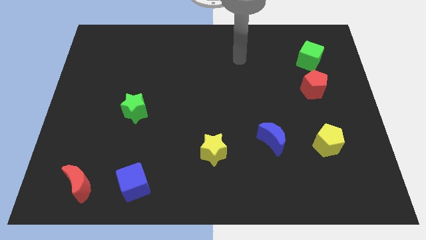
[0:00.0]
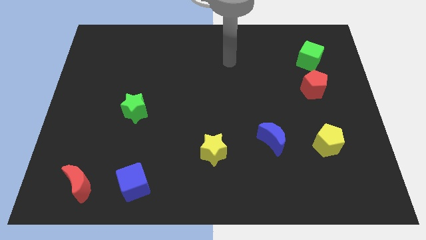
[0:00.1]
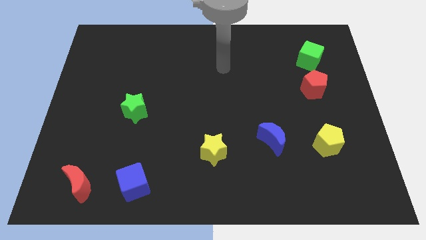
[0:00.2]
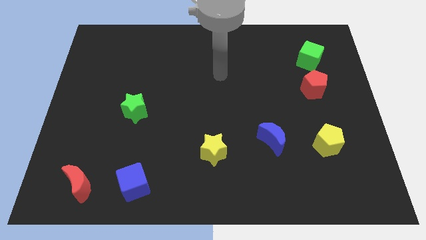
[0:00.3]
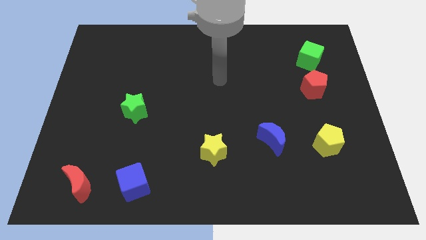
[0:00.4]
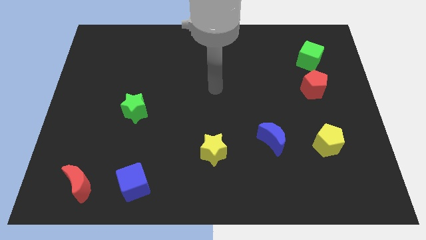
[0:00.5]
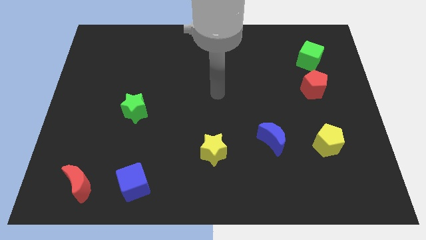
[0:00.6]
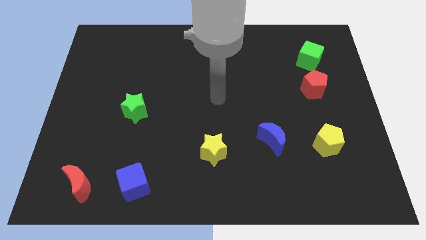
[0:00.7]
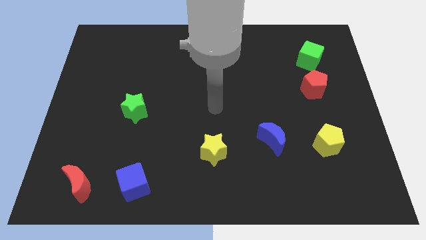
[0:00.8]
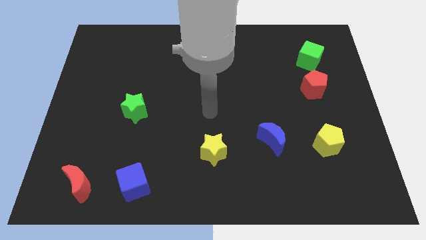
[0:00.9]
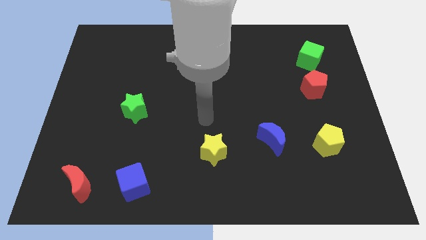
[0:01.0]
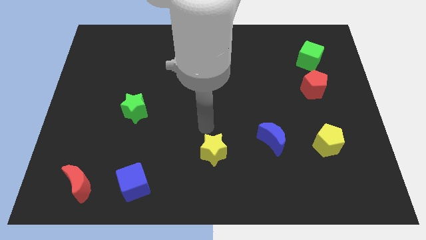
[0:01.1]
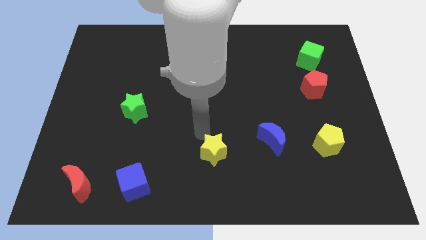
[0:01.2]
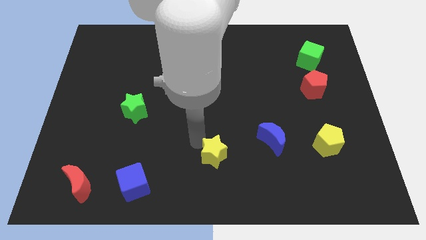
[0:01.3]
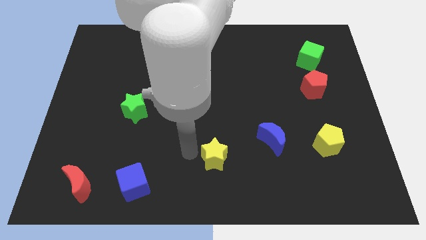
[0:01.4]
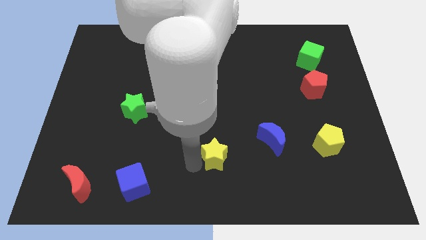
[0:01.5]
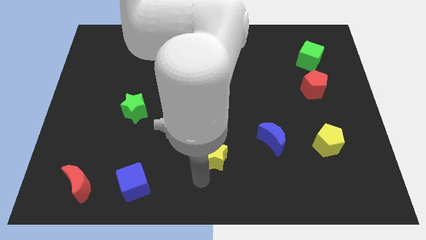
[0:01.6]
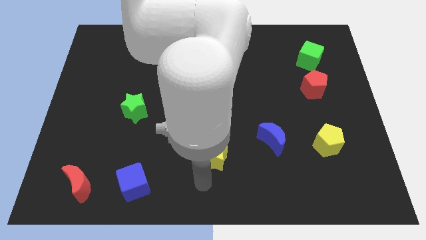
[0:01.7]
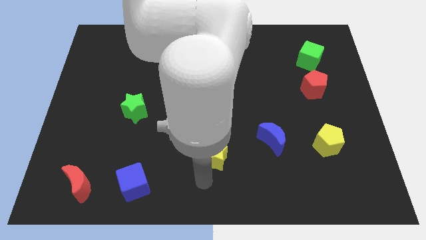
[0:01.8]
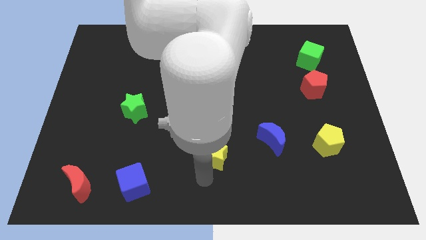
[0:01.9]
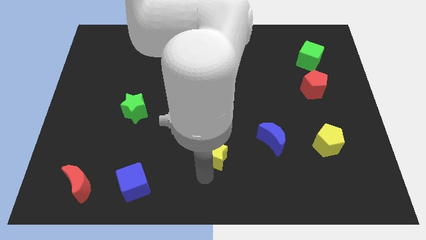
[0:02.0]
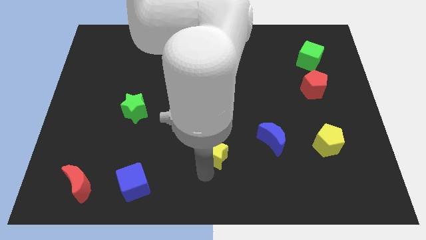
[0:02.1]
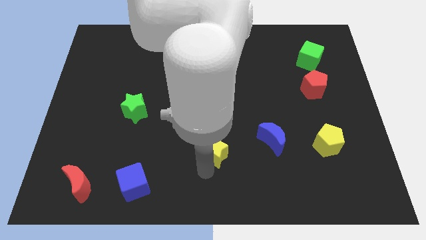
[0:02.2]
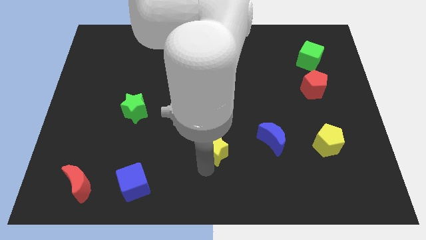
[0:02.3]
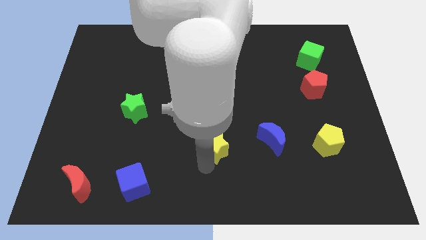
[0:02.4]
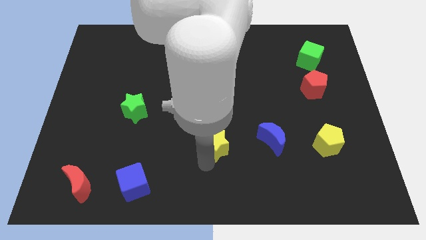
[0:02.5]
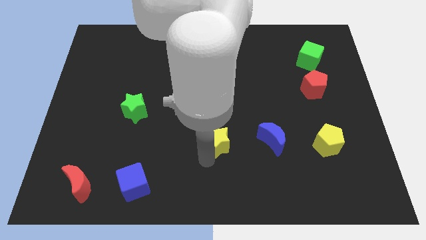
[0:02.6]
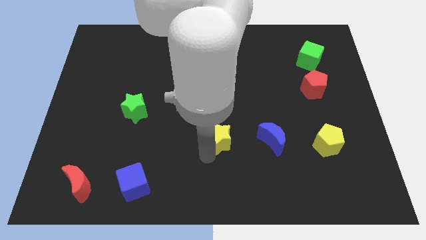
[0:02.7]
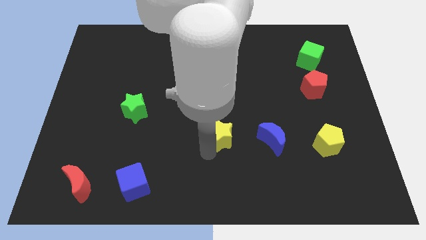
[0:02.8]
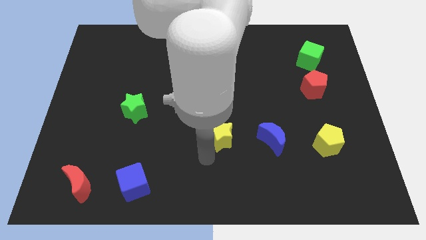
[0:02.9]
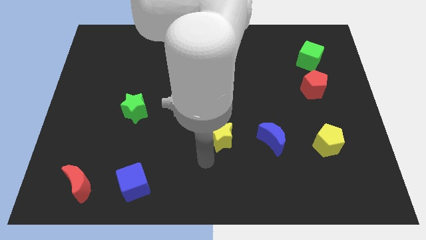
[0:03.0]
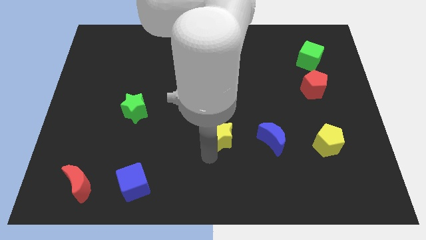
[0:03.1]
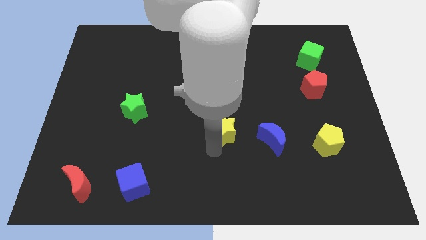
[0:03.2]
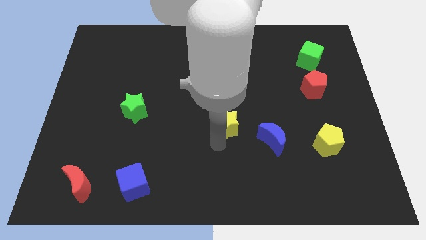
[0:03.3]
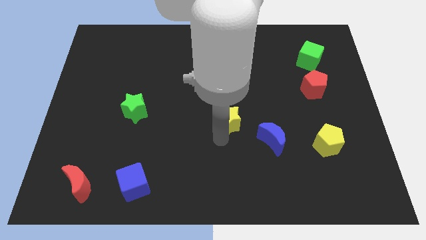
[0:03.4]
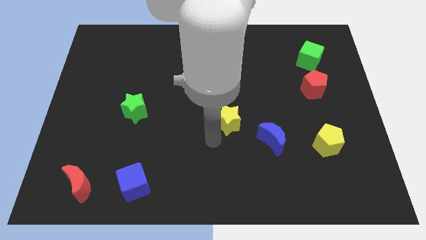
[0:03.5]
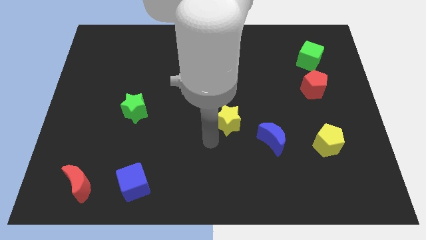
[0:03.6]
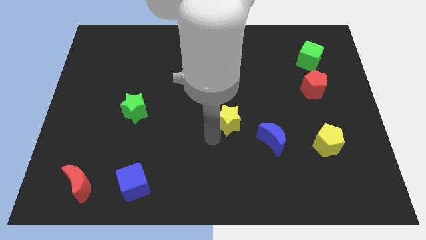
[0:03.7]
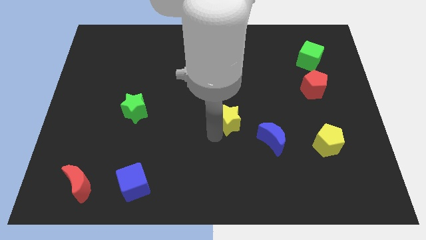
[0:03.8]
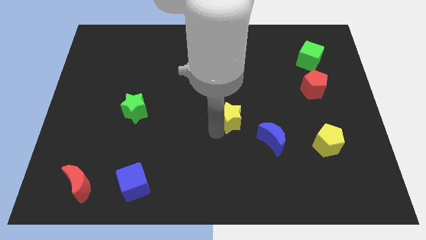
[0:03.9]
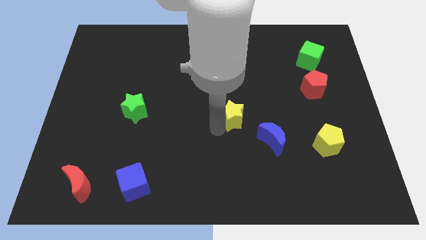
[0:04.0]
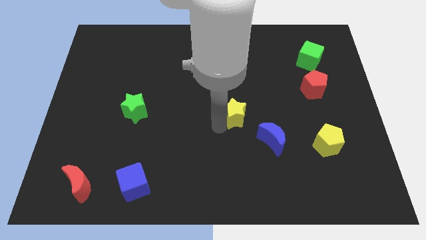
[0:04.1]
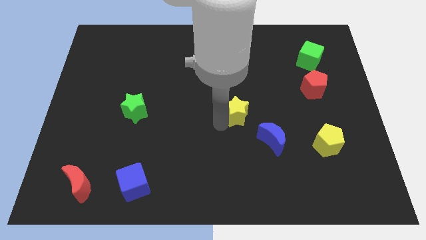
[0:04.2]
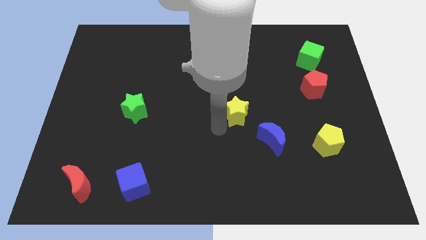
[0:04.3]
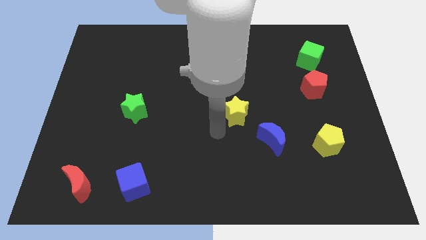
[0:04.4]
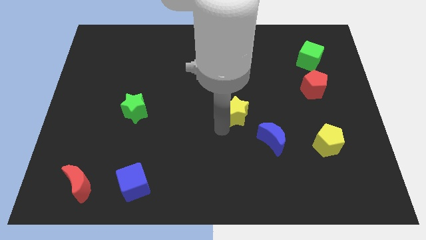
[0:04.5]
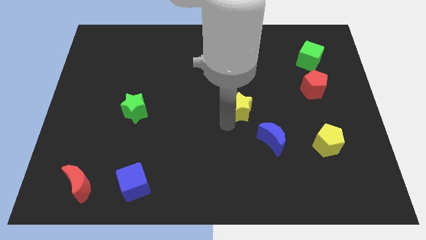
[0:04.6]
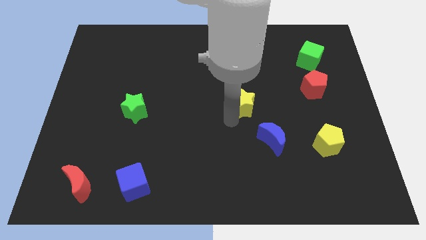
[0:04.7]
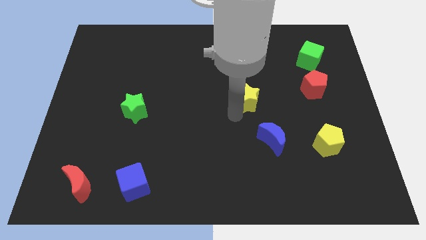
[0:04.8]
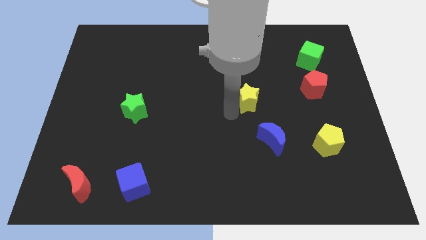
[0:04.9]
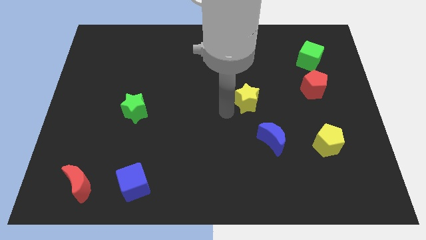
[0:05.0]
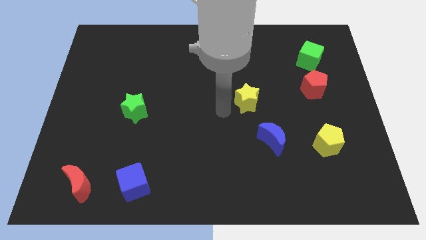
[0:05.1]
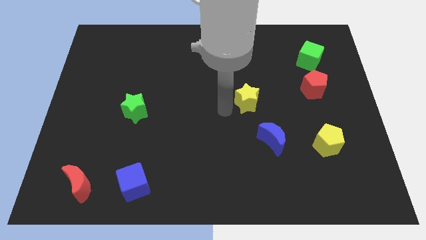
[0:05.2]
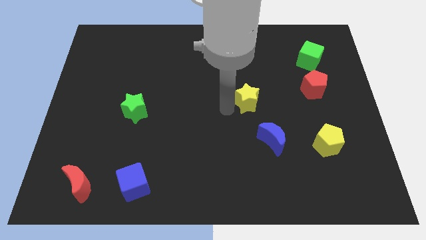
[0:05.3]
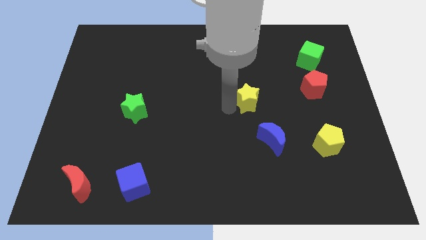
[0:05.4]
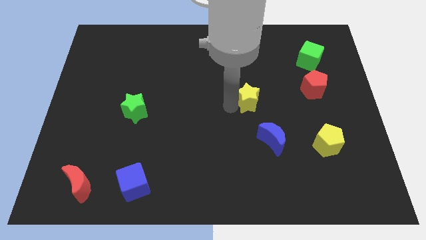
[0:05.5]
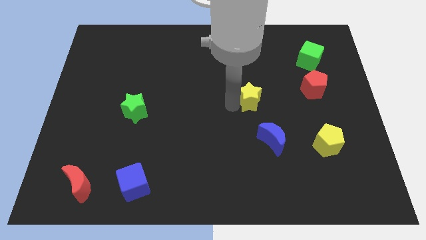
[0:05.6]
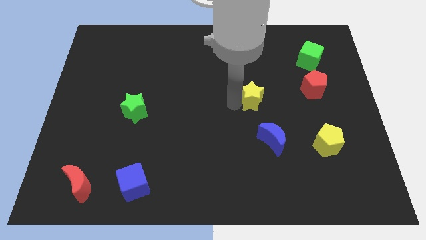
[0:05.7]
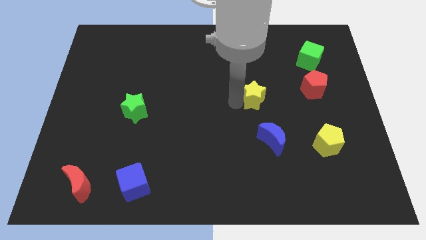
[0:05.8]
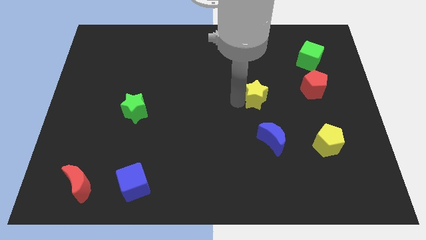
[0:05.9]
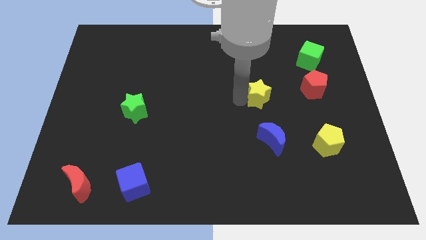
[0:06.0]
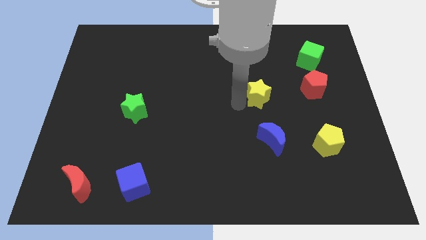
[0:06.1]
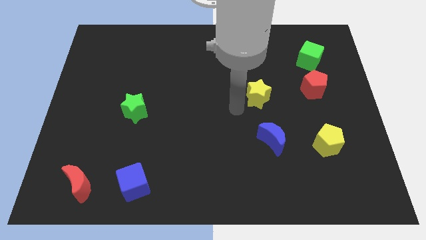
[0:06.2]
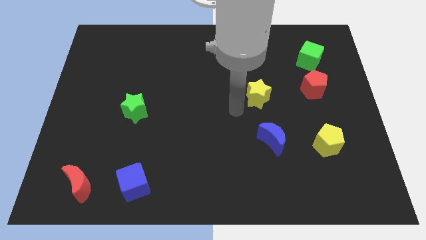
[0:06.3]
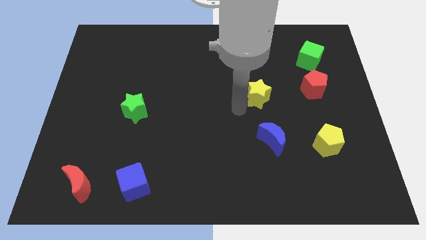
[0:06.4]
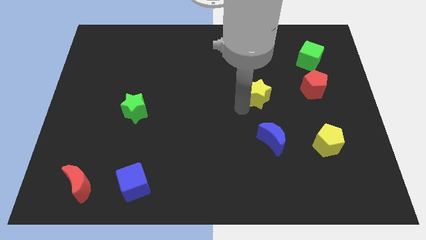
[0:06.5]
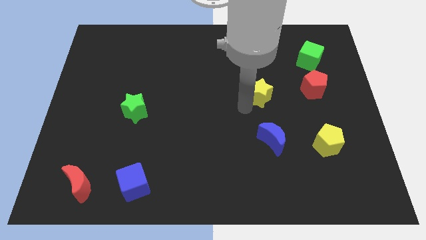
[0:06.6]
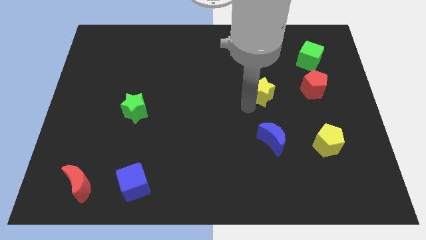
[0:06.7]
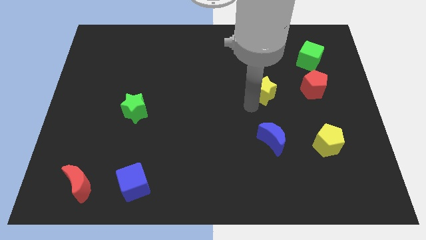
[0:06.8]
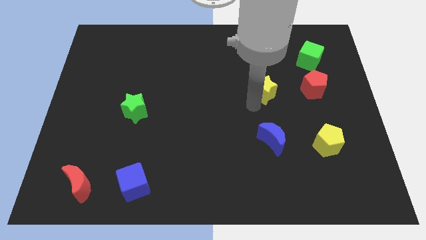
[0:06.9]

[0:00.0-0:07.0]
slide the yellow star upwards and to the right

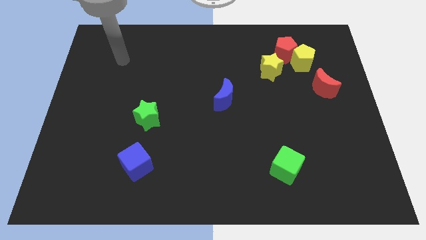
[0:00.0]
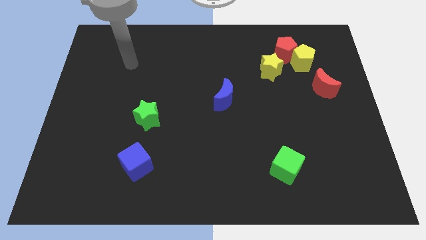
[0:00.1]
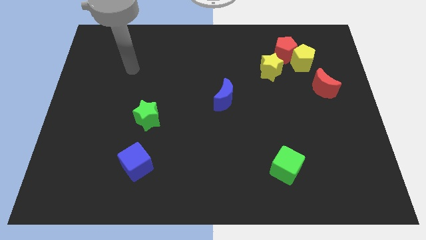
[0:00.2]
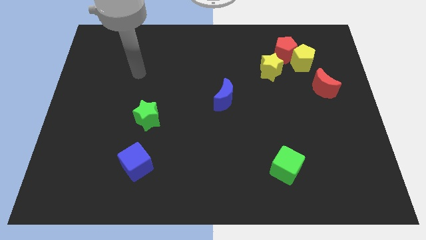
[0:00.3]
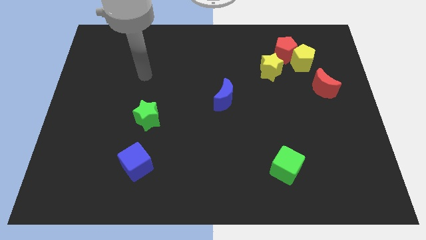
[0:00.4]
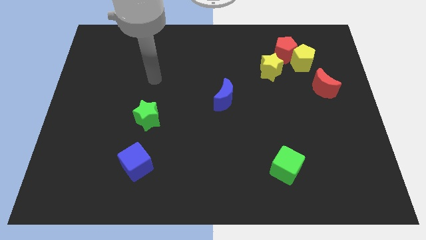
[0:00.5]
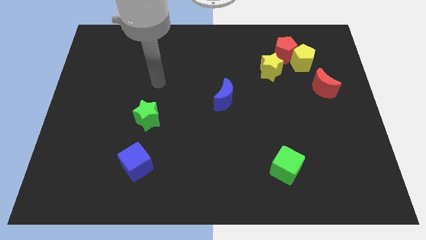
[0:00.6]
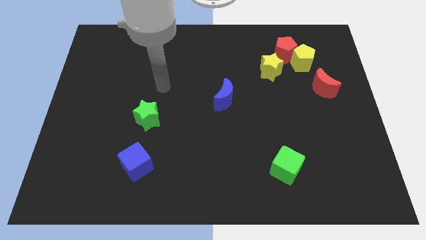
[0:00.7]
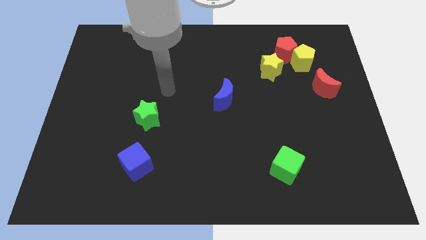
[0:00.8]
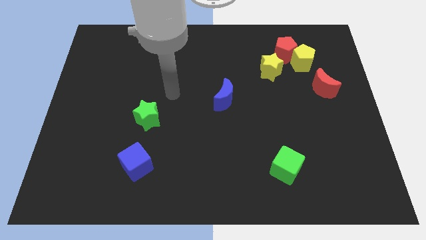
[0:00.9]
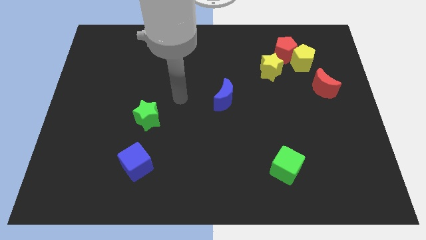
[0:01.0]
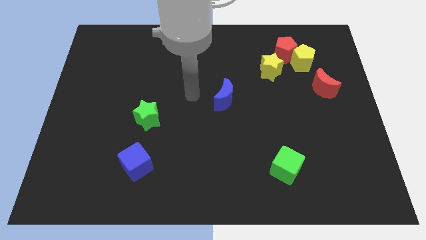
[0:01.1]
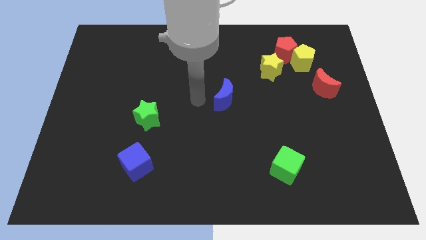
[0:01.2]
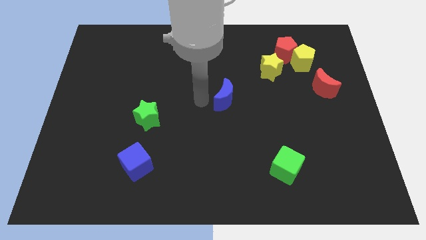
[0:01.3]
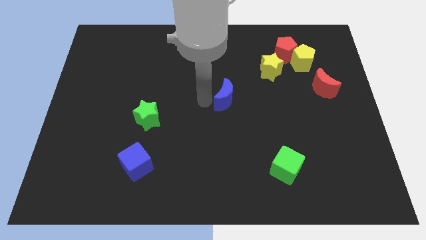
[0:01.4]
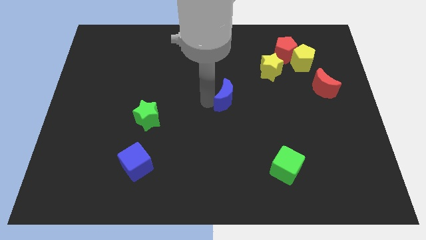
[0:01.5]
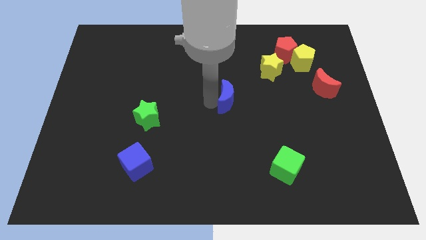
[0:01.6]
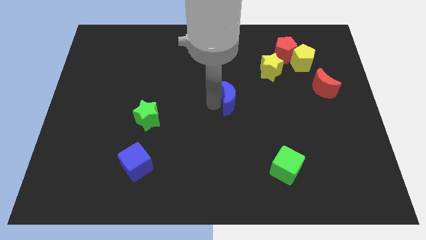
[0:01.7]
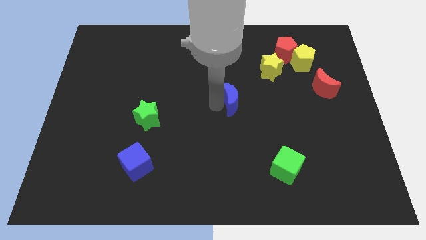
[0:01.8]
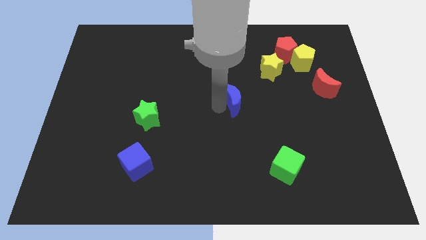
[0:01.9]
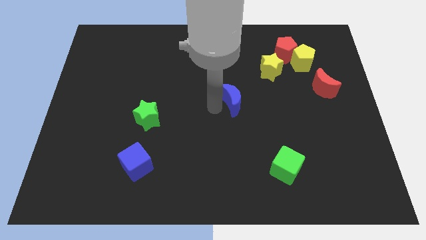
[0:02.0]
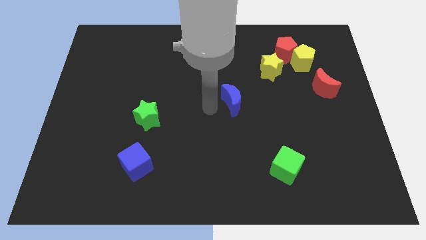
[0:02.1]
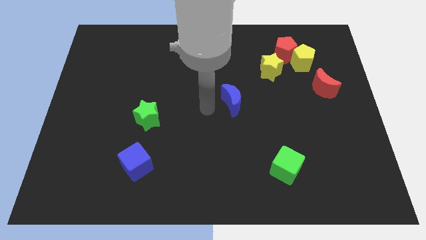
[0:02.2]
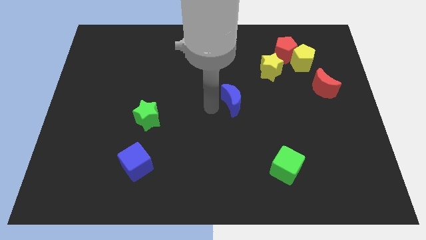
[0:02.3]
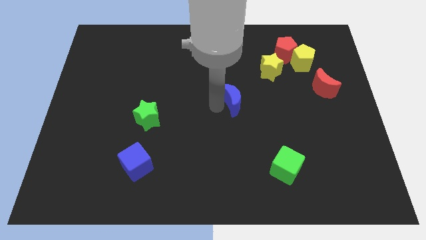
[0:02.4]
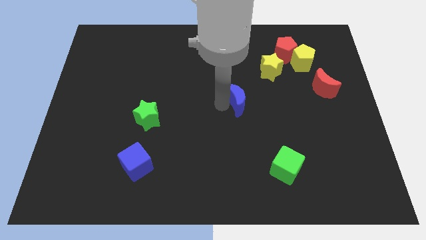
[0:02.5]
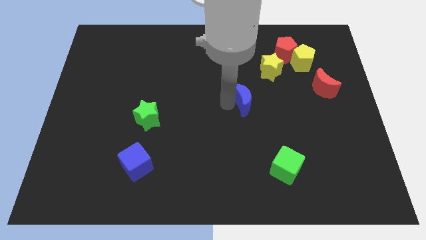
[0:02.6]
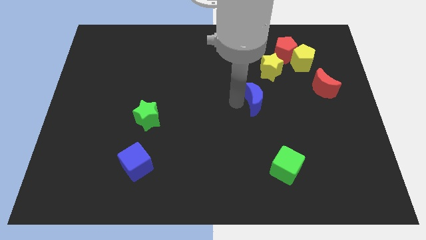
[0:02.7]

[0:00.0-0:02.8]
slightly move the blue moon right
